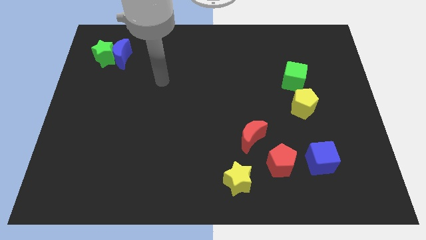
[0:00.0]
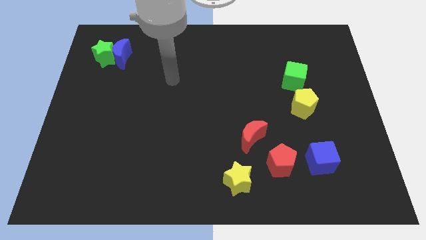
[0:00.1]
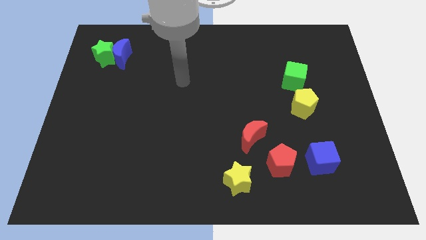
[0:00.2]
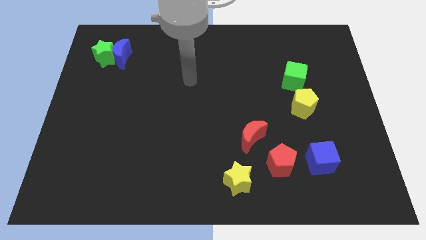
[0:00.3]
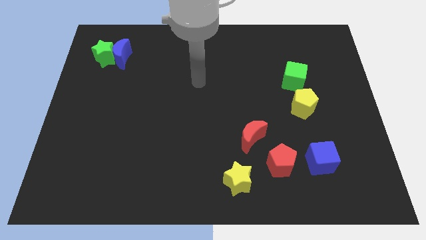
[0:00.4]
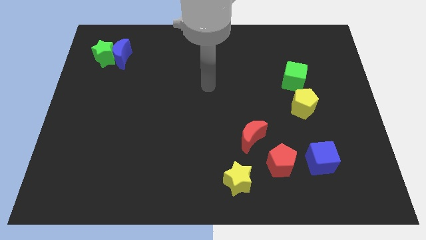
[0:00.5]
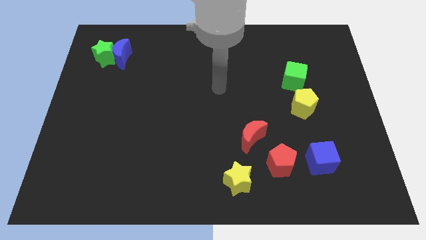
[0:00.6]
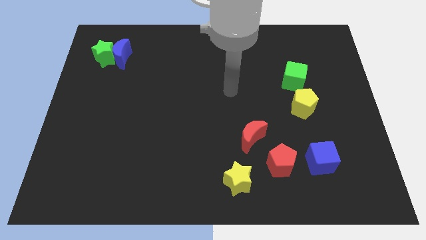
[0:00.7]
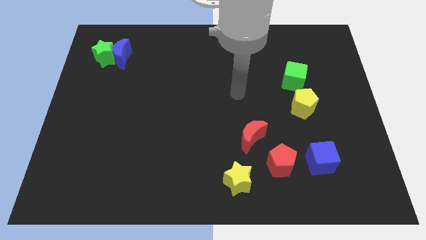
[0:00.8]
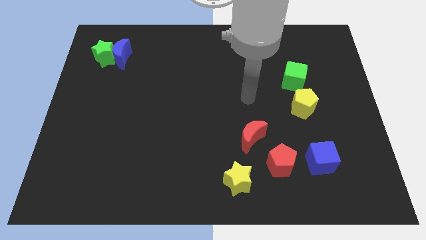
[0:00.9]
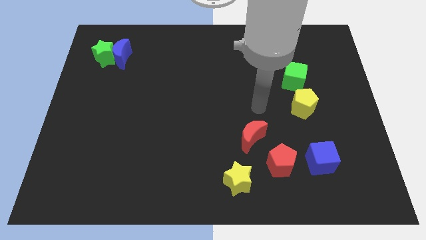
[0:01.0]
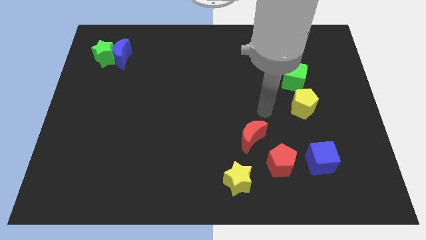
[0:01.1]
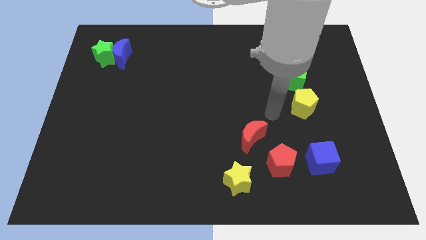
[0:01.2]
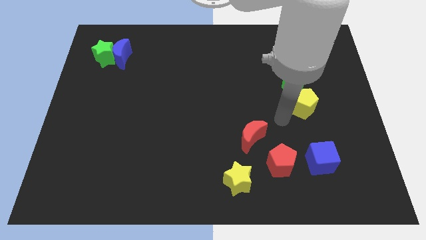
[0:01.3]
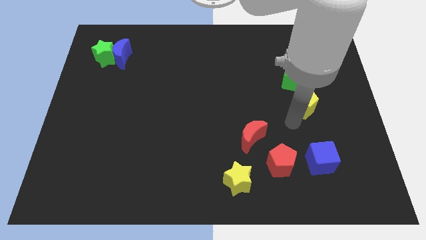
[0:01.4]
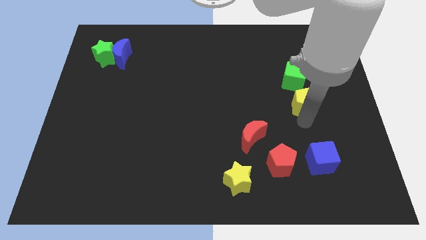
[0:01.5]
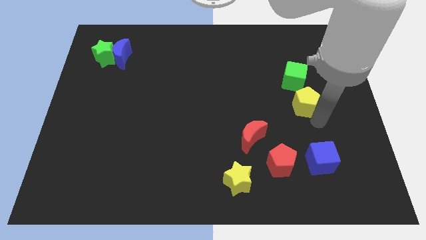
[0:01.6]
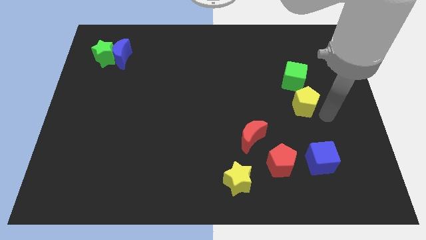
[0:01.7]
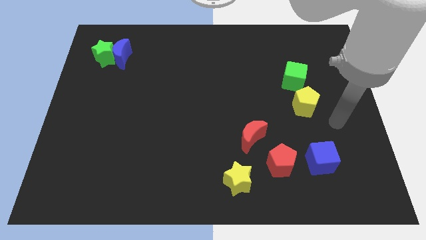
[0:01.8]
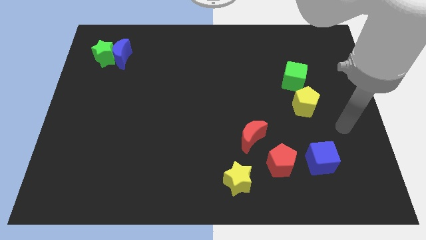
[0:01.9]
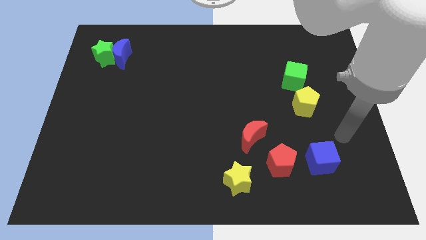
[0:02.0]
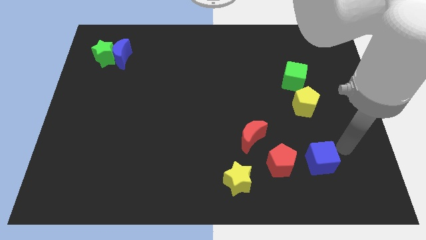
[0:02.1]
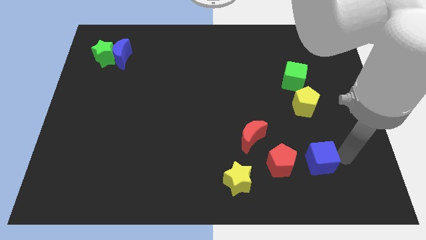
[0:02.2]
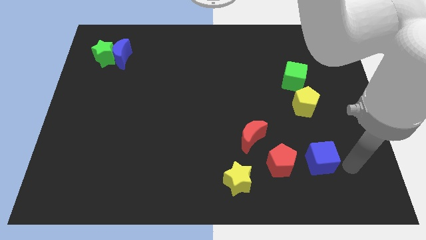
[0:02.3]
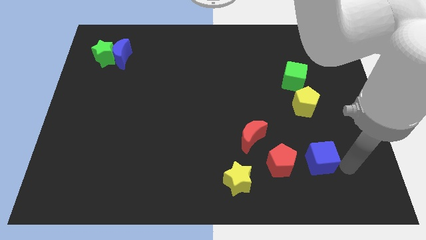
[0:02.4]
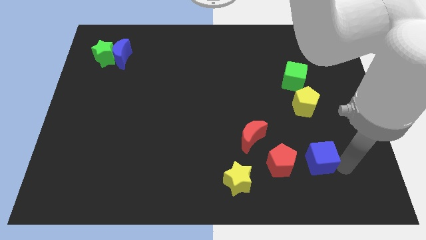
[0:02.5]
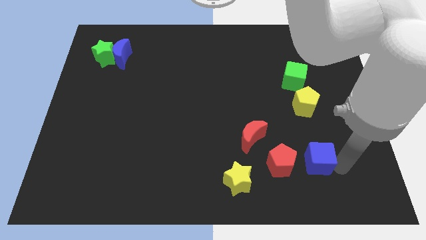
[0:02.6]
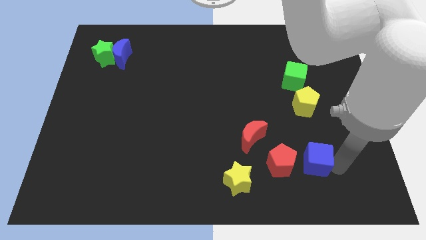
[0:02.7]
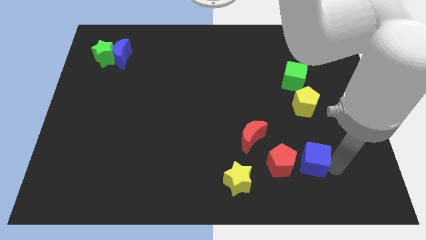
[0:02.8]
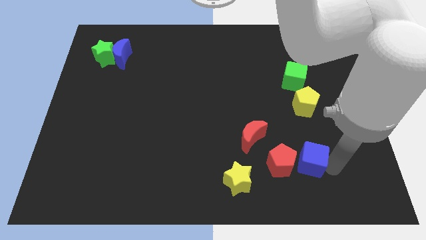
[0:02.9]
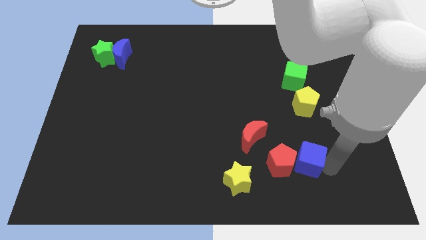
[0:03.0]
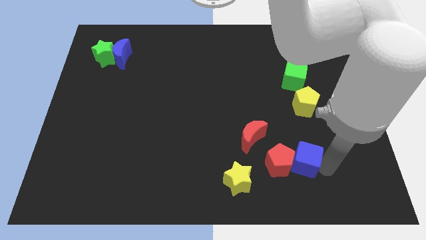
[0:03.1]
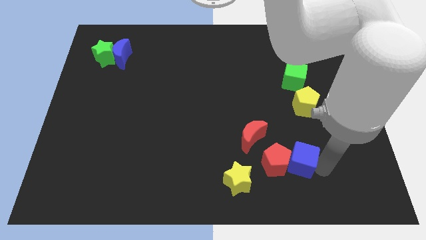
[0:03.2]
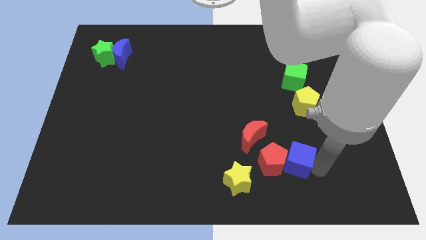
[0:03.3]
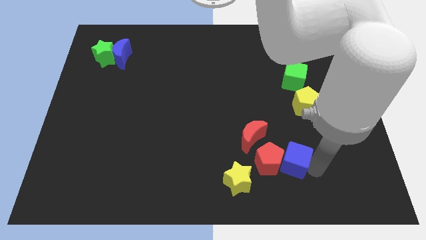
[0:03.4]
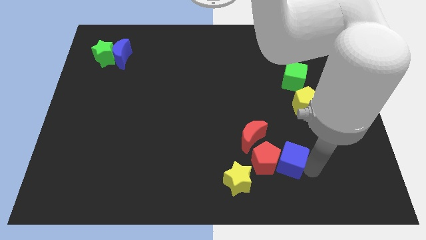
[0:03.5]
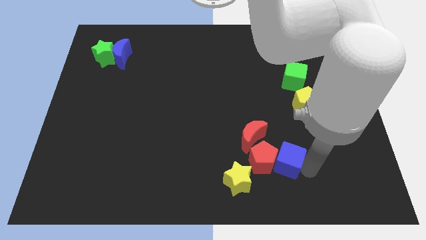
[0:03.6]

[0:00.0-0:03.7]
slightly slide the blue cube to the left

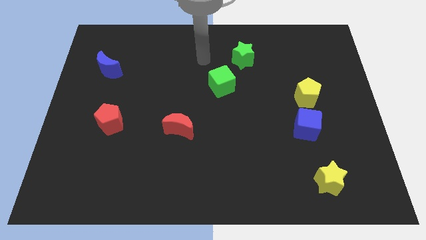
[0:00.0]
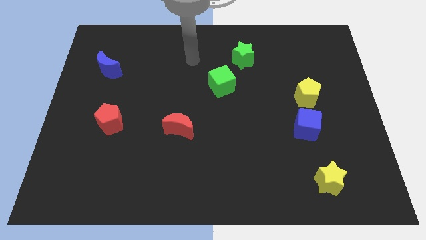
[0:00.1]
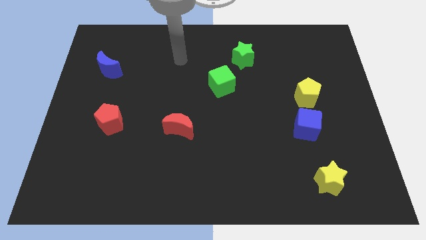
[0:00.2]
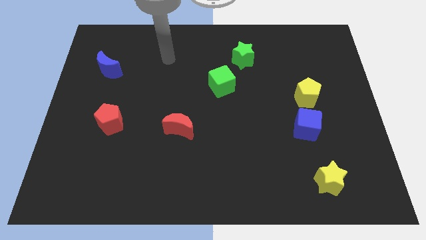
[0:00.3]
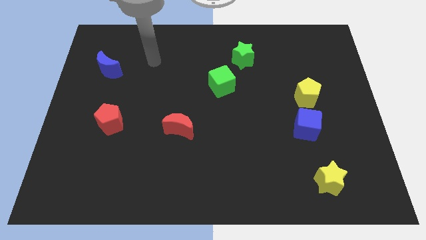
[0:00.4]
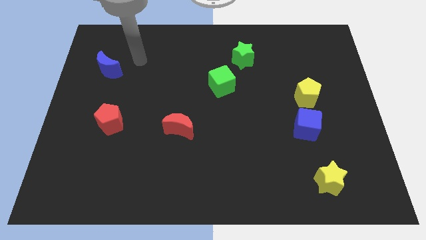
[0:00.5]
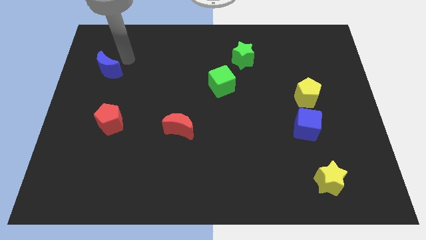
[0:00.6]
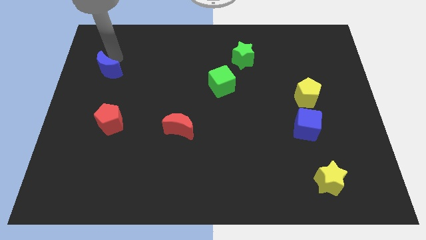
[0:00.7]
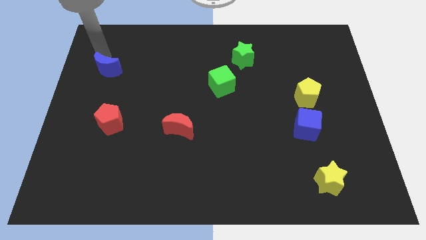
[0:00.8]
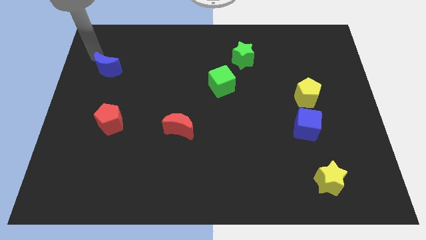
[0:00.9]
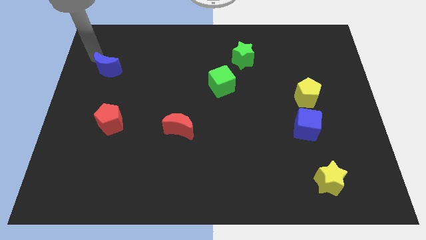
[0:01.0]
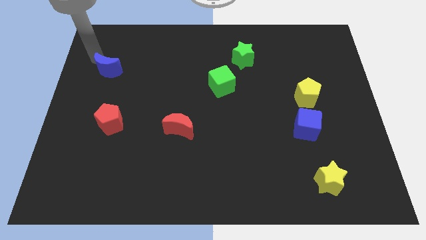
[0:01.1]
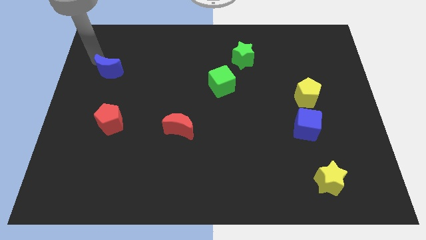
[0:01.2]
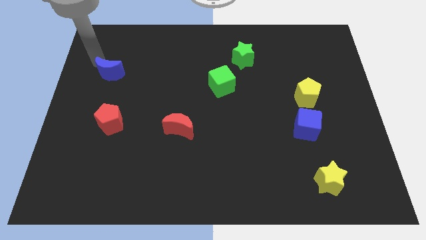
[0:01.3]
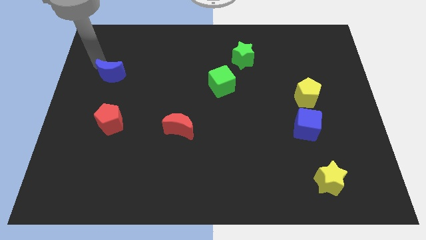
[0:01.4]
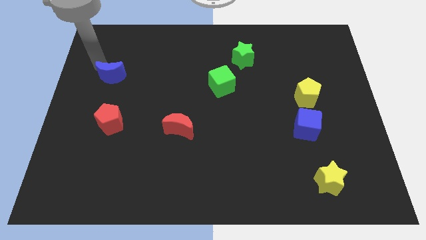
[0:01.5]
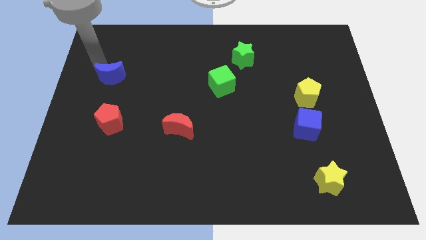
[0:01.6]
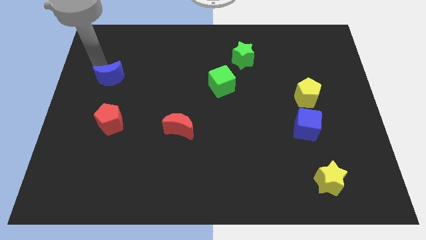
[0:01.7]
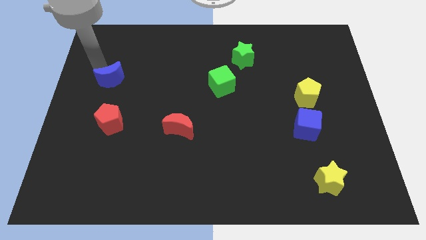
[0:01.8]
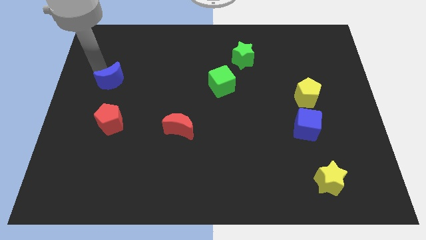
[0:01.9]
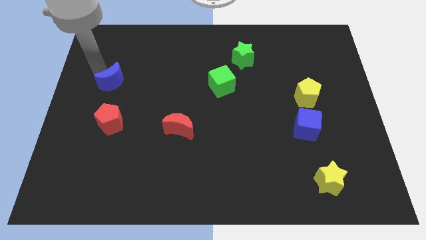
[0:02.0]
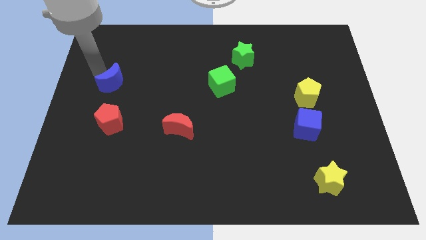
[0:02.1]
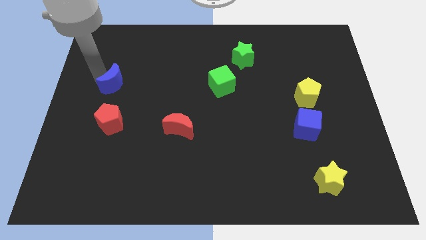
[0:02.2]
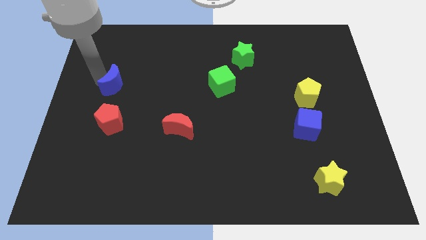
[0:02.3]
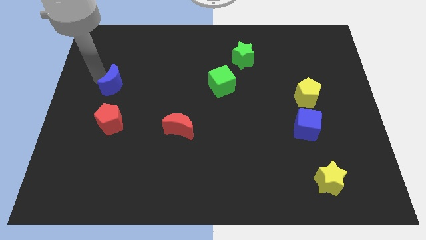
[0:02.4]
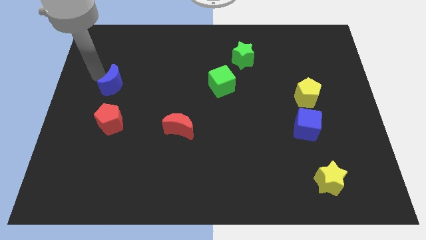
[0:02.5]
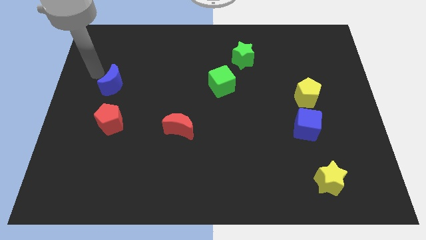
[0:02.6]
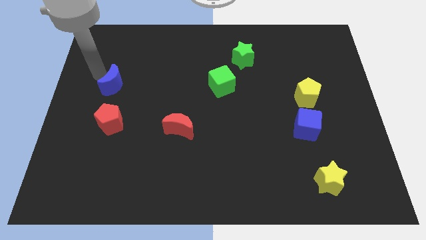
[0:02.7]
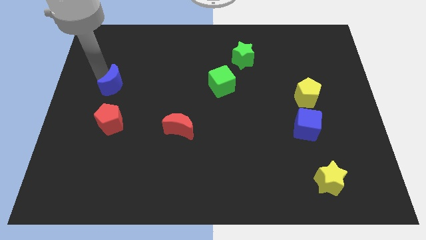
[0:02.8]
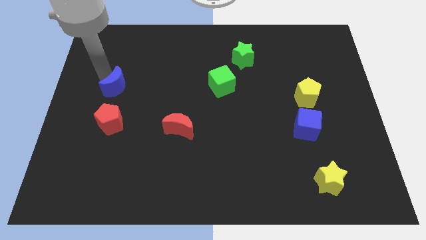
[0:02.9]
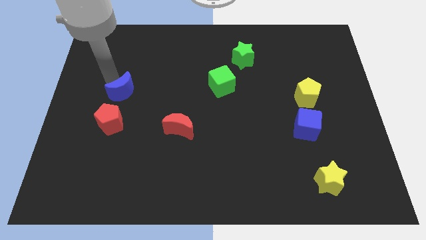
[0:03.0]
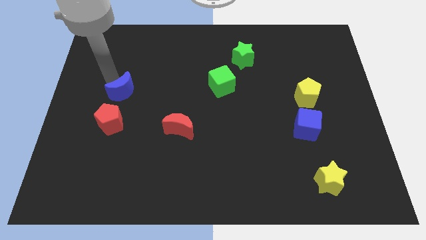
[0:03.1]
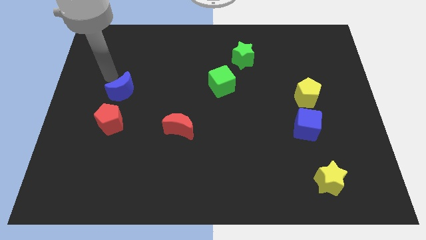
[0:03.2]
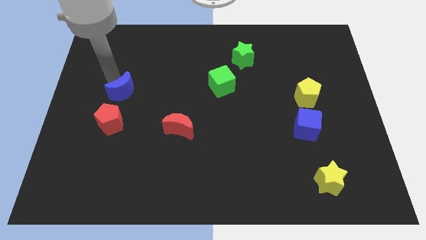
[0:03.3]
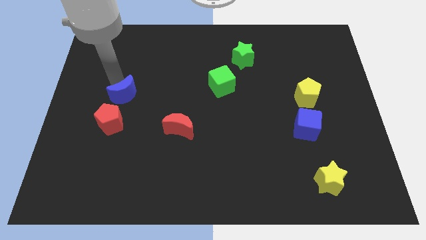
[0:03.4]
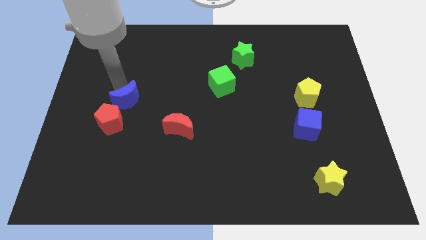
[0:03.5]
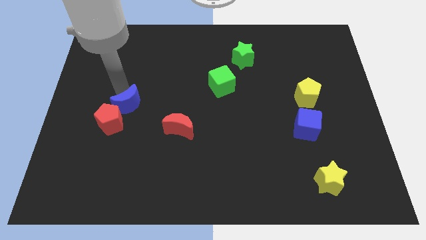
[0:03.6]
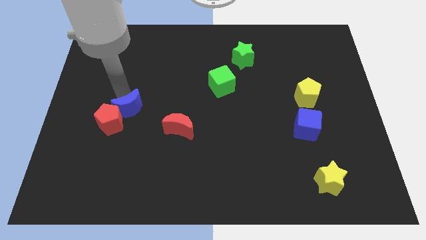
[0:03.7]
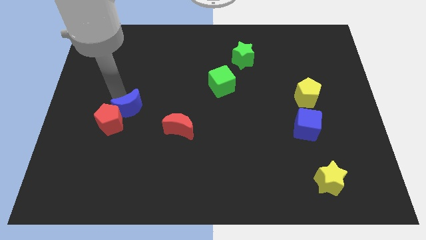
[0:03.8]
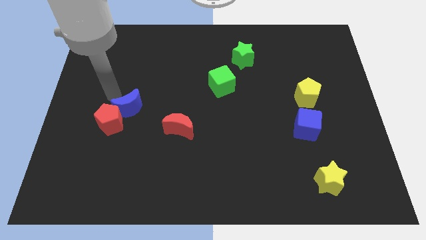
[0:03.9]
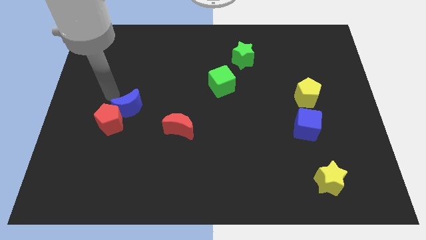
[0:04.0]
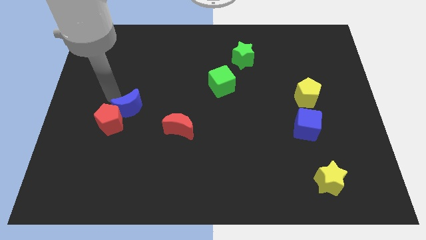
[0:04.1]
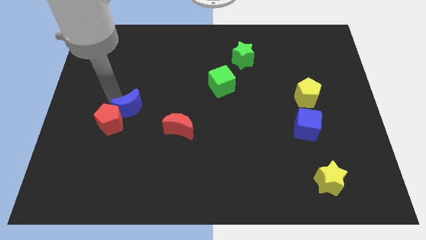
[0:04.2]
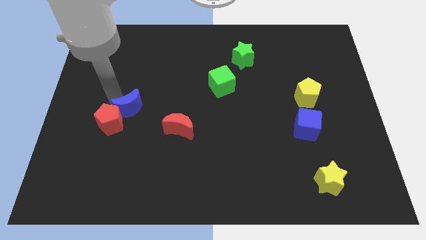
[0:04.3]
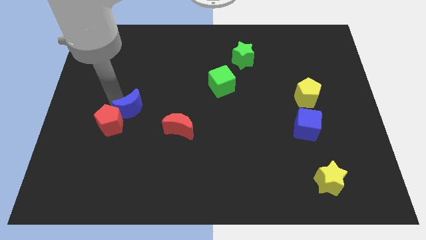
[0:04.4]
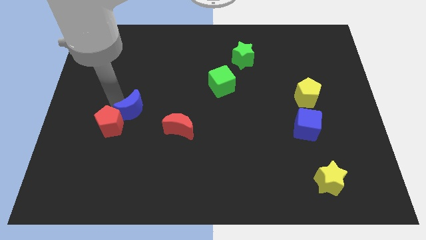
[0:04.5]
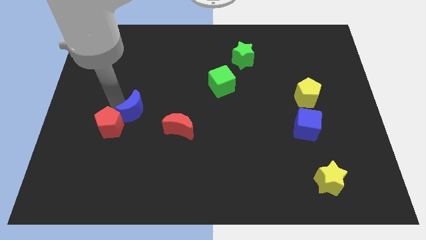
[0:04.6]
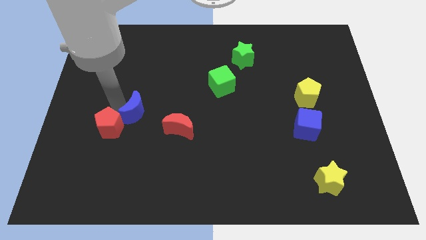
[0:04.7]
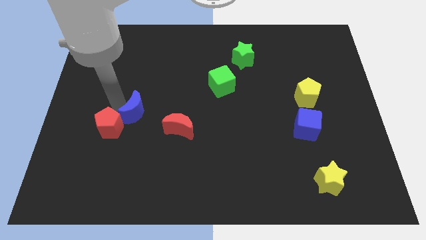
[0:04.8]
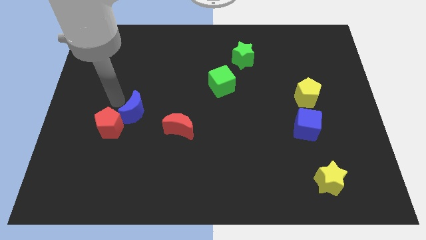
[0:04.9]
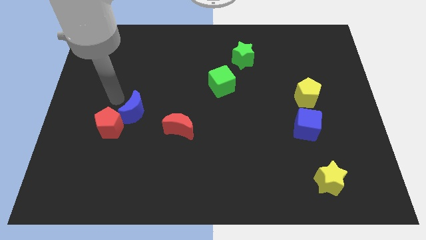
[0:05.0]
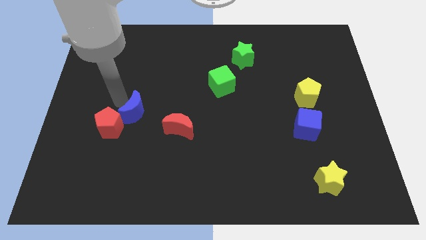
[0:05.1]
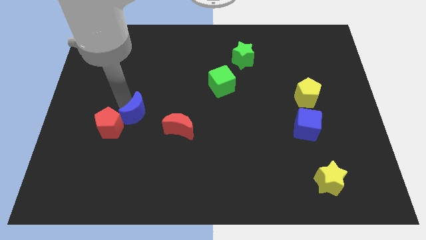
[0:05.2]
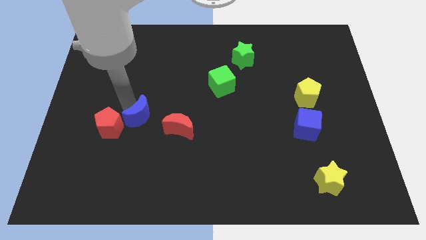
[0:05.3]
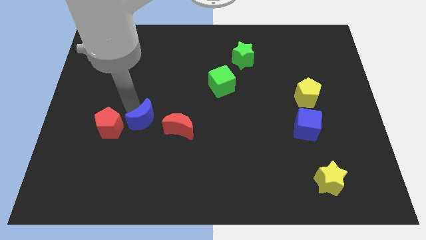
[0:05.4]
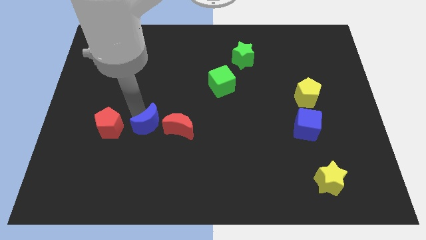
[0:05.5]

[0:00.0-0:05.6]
push the blue moon downwards and right
